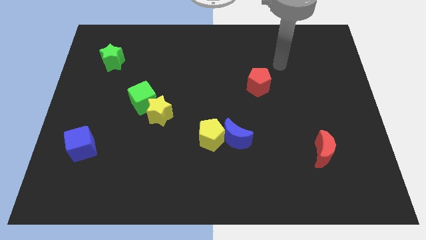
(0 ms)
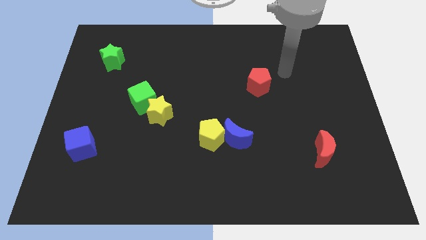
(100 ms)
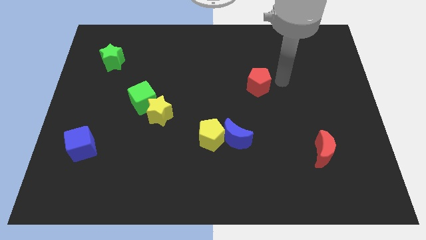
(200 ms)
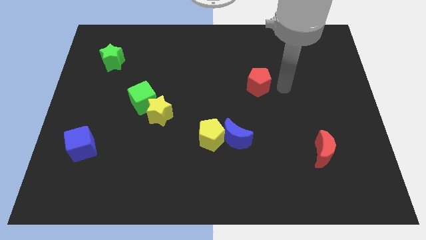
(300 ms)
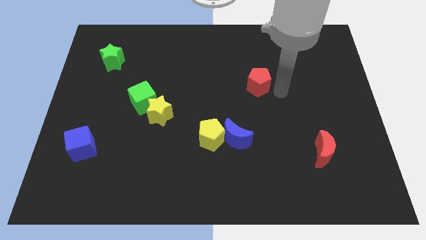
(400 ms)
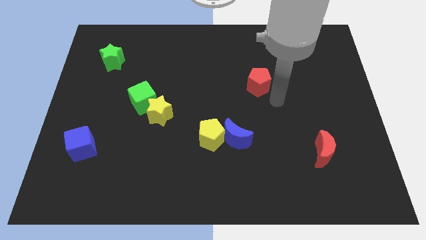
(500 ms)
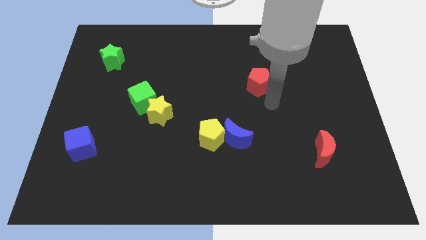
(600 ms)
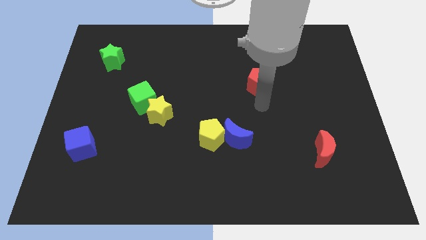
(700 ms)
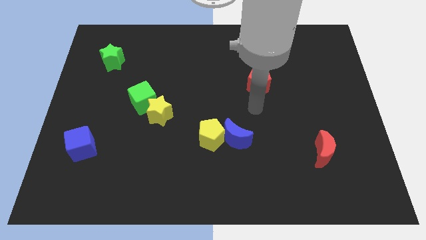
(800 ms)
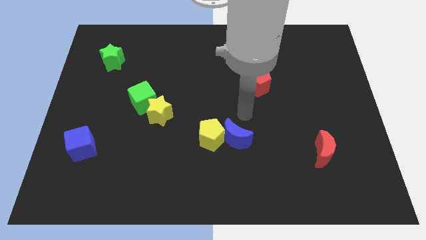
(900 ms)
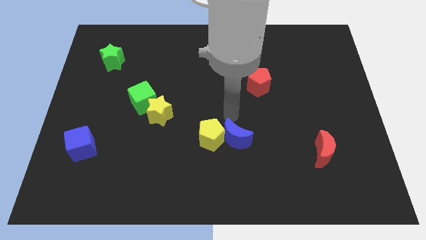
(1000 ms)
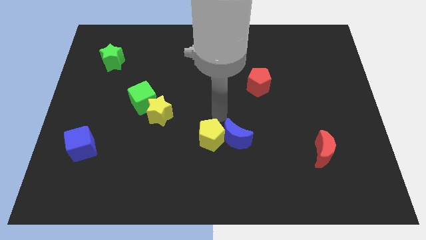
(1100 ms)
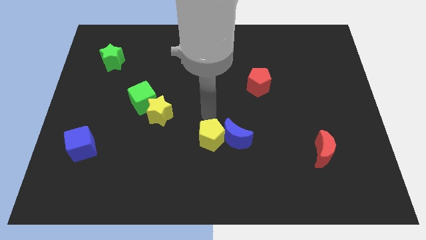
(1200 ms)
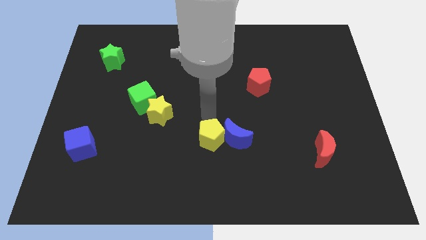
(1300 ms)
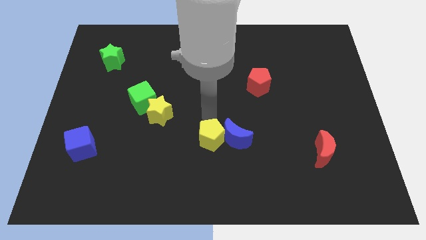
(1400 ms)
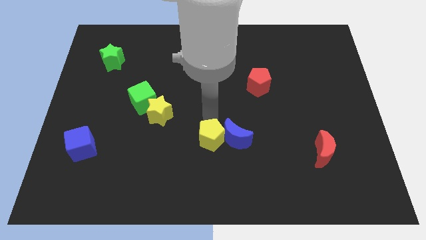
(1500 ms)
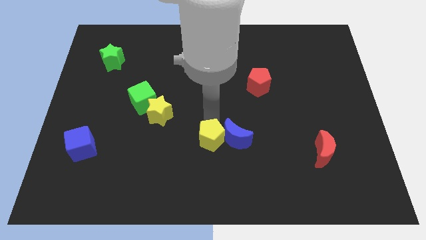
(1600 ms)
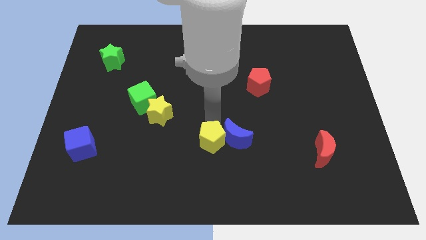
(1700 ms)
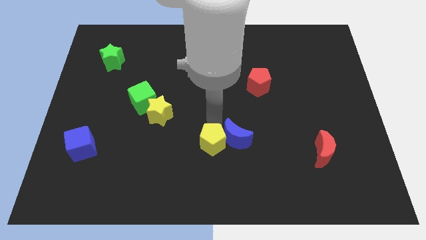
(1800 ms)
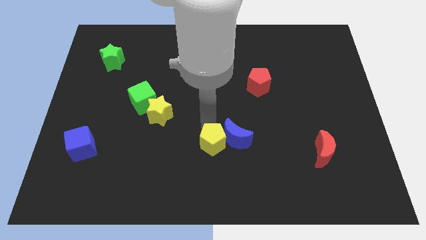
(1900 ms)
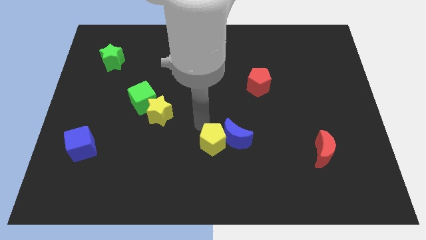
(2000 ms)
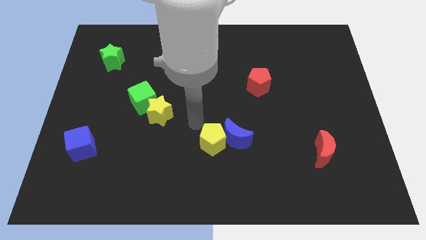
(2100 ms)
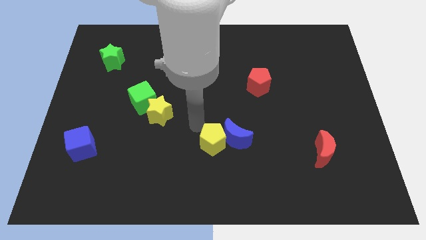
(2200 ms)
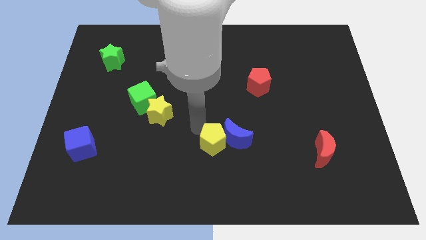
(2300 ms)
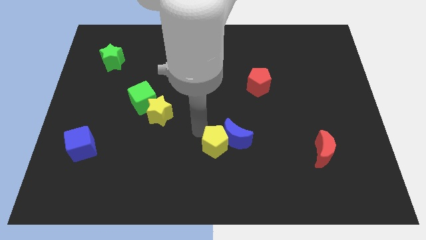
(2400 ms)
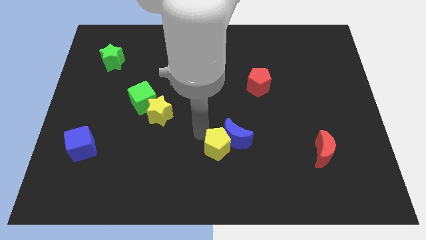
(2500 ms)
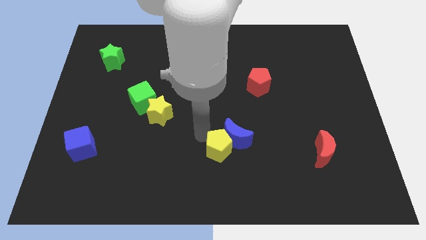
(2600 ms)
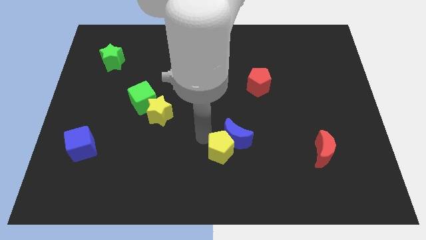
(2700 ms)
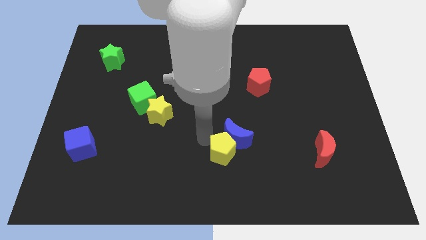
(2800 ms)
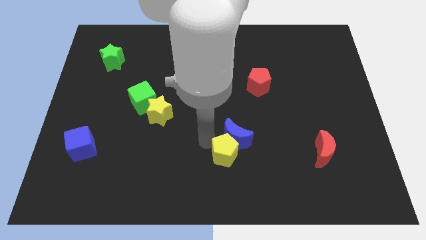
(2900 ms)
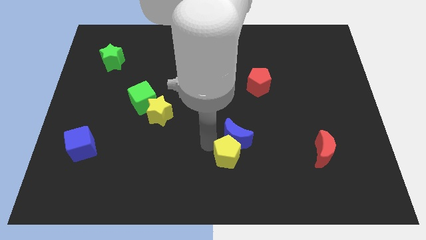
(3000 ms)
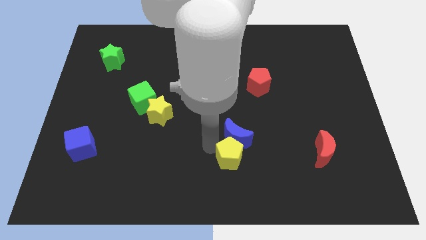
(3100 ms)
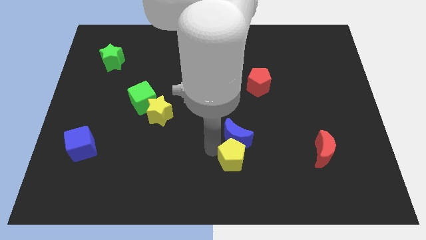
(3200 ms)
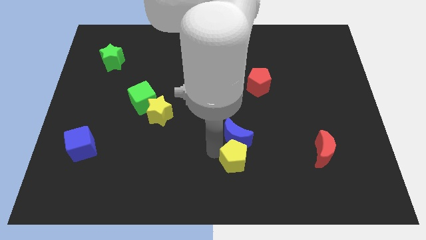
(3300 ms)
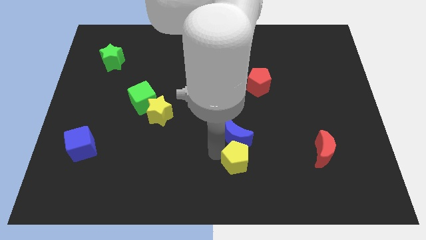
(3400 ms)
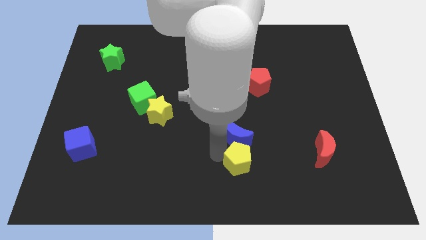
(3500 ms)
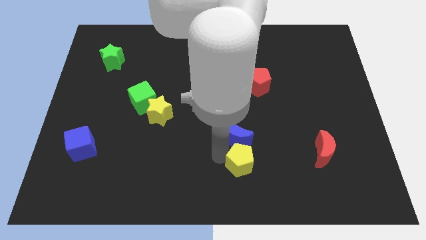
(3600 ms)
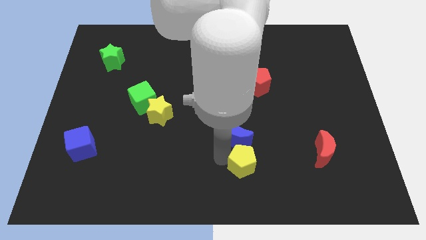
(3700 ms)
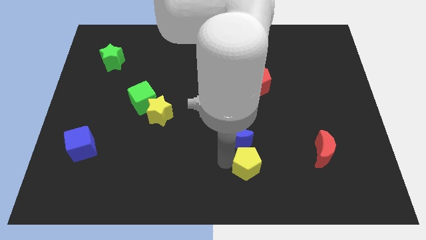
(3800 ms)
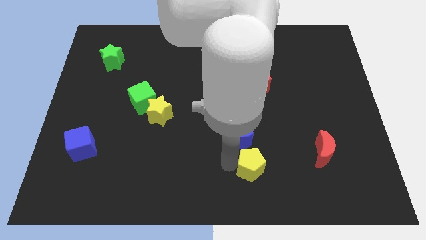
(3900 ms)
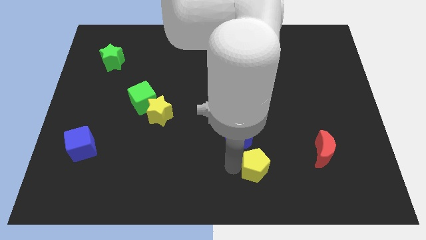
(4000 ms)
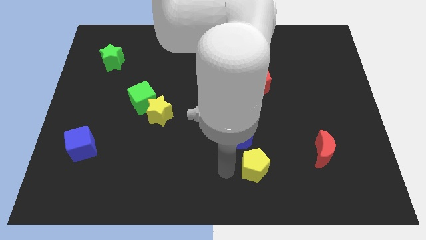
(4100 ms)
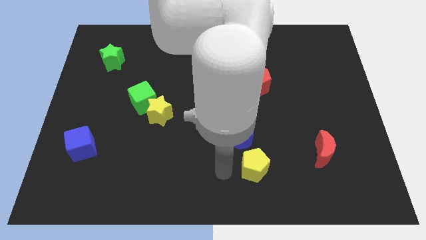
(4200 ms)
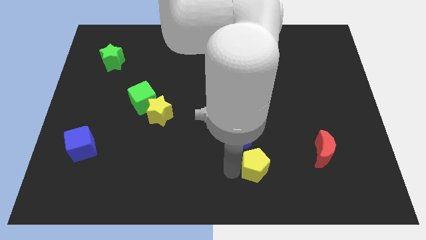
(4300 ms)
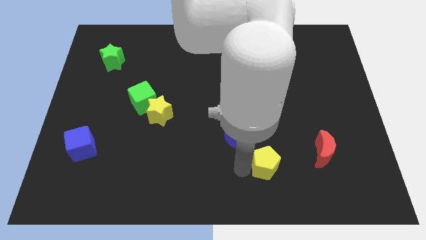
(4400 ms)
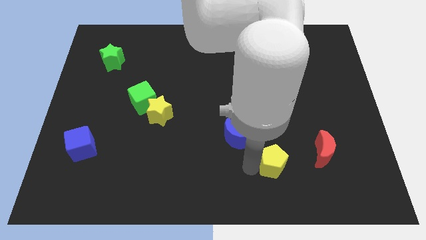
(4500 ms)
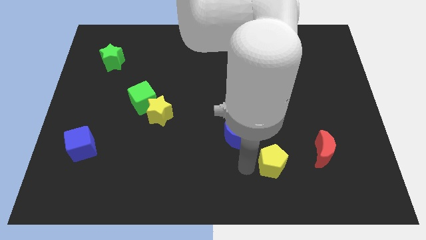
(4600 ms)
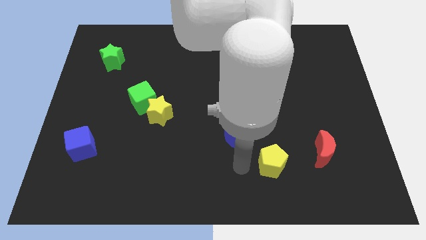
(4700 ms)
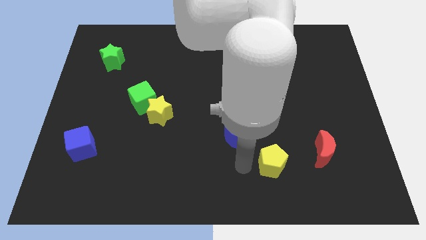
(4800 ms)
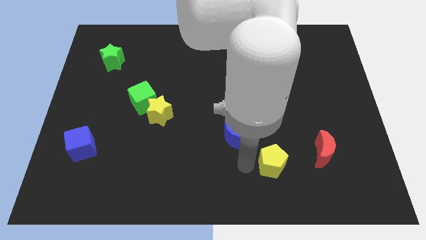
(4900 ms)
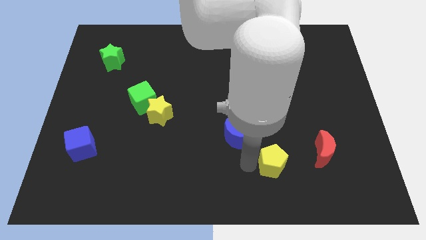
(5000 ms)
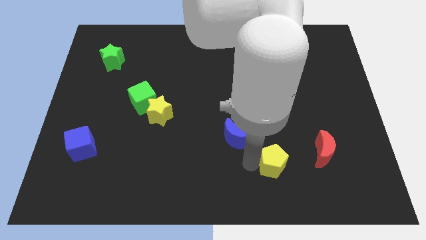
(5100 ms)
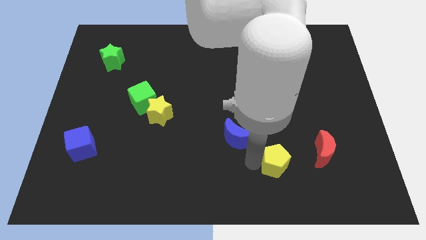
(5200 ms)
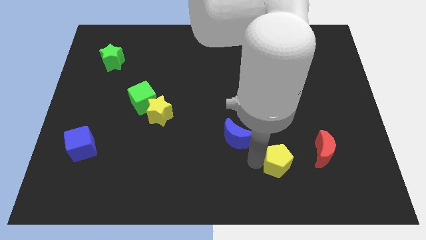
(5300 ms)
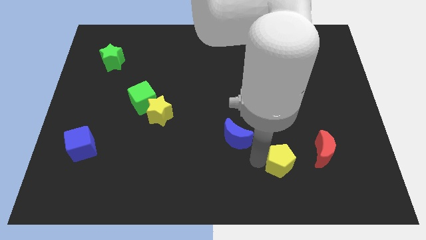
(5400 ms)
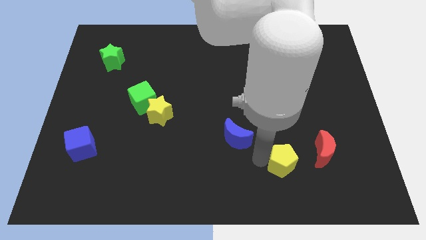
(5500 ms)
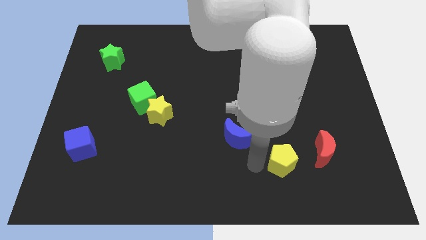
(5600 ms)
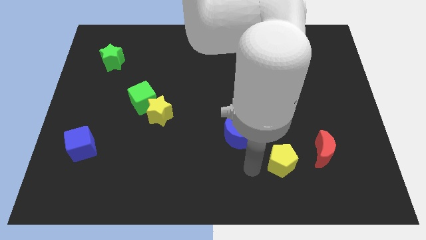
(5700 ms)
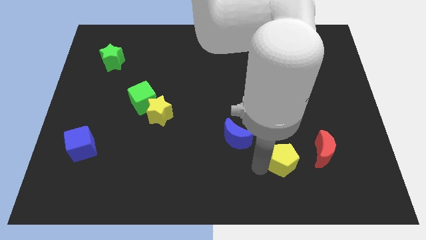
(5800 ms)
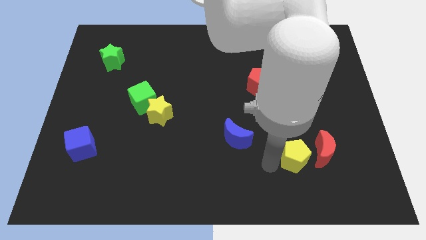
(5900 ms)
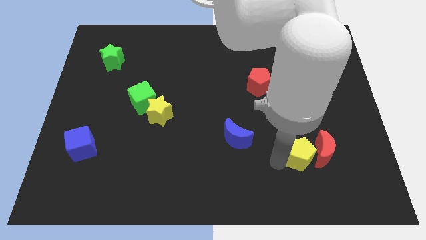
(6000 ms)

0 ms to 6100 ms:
slide the yellow pentagon to the red moon

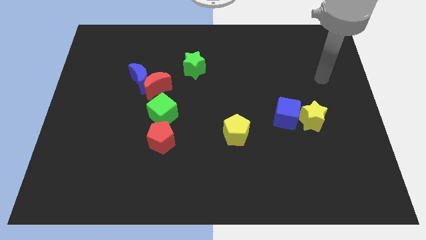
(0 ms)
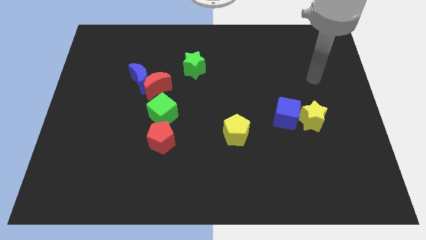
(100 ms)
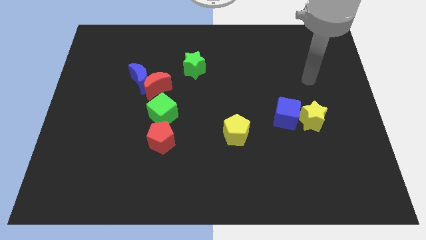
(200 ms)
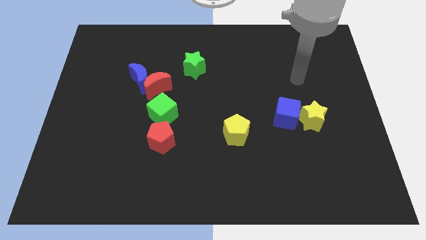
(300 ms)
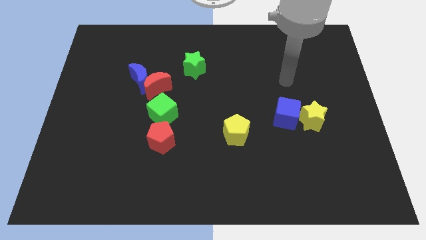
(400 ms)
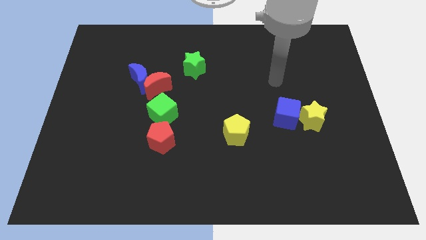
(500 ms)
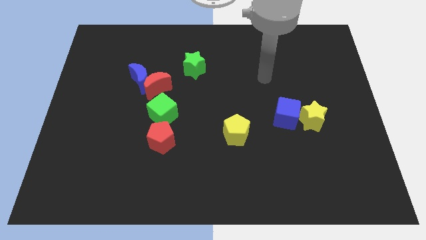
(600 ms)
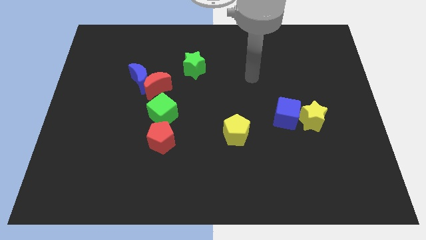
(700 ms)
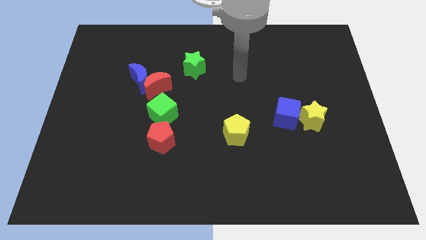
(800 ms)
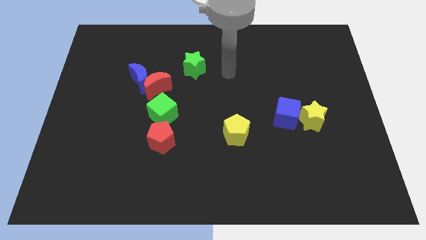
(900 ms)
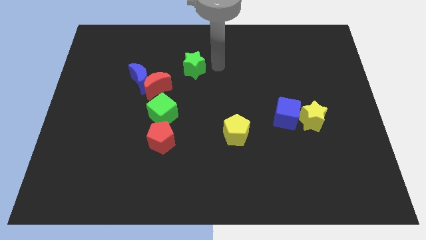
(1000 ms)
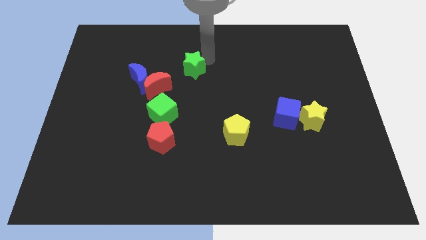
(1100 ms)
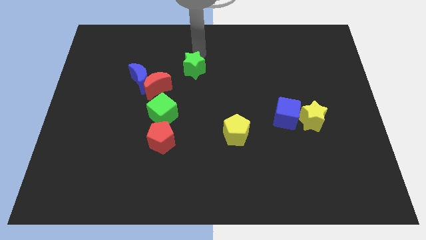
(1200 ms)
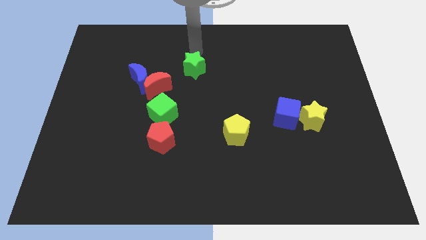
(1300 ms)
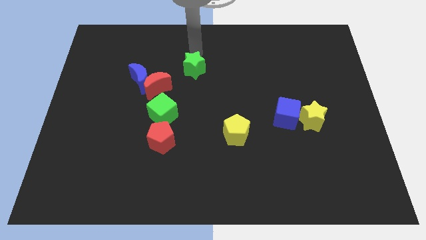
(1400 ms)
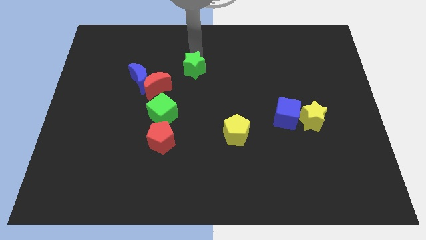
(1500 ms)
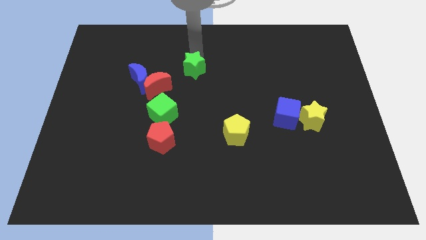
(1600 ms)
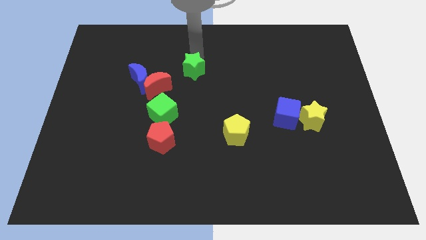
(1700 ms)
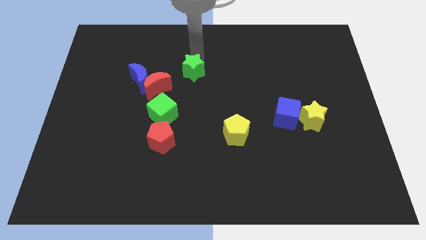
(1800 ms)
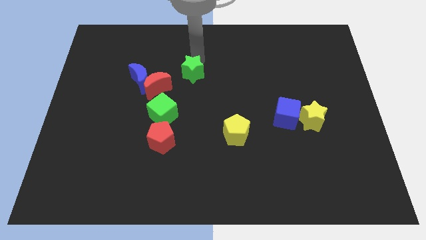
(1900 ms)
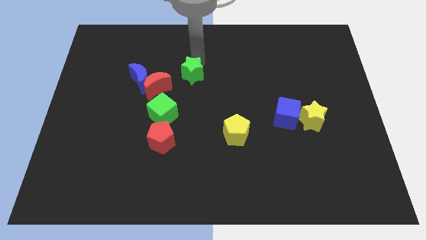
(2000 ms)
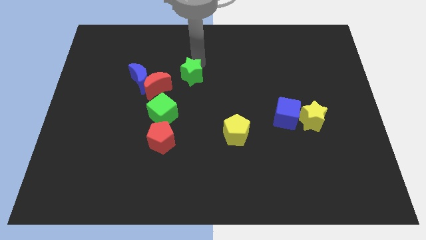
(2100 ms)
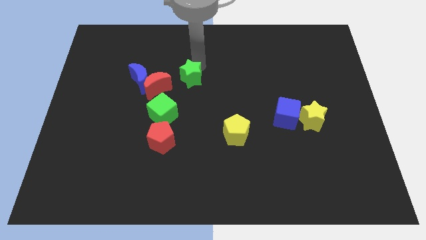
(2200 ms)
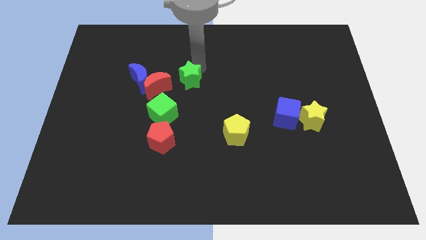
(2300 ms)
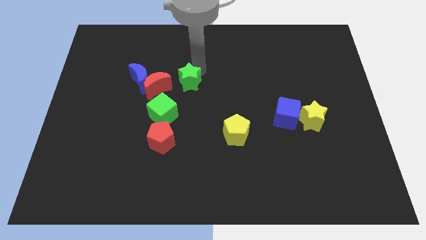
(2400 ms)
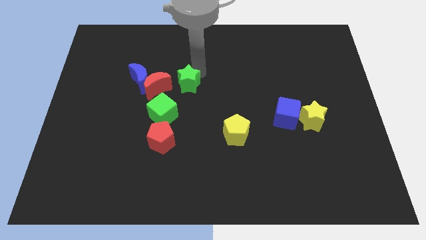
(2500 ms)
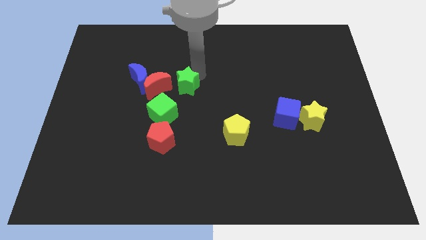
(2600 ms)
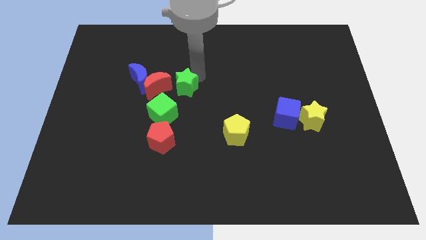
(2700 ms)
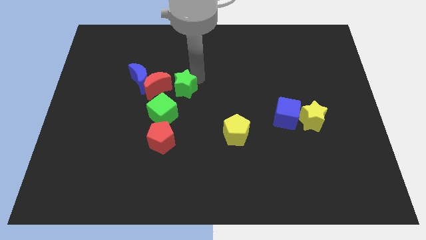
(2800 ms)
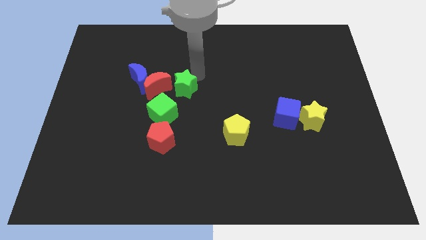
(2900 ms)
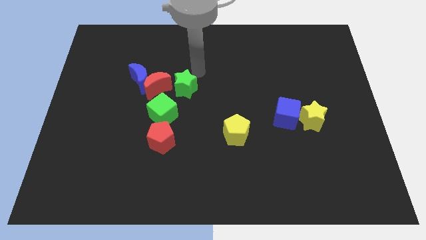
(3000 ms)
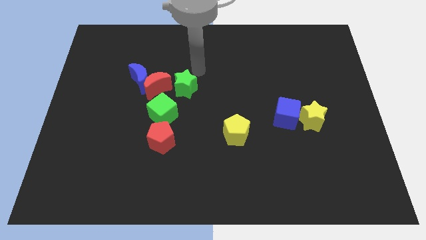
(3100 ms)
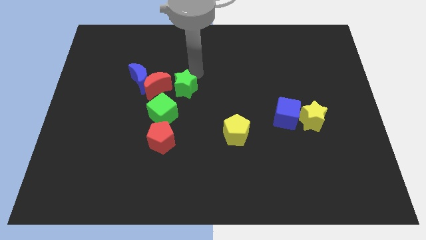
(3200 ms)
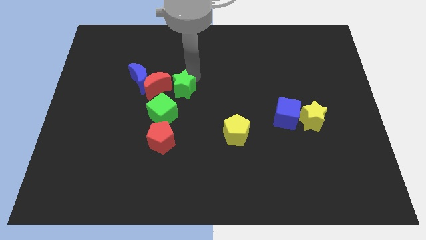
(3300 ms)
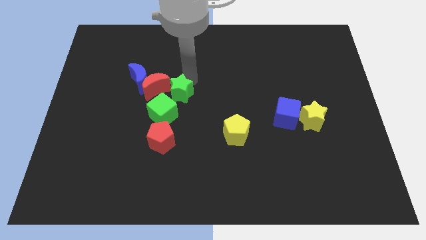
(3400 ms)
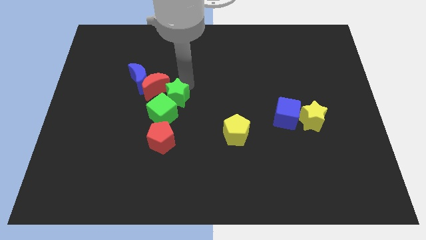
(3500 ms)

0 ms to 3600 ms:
put the green star towards the green cube
